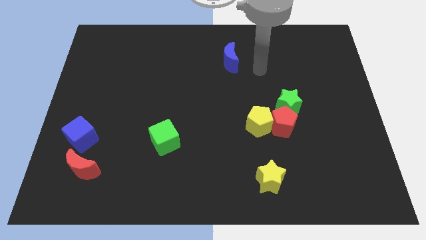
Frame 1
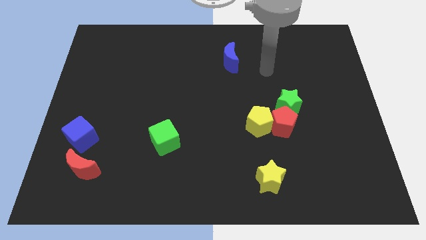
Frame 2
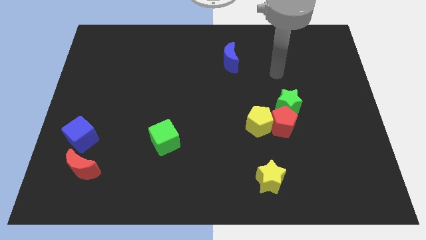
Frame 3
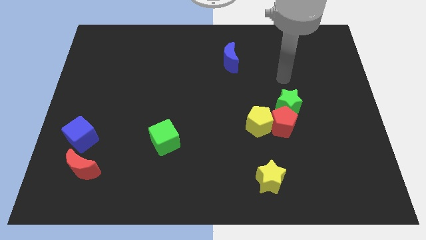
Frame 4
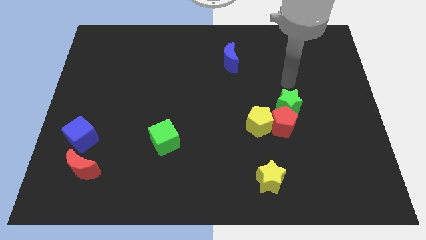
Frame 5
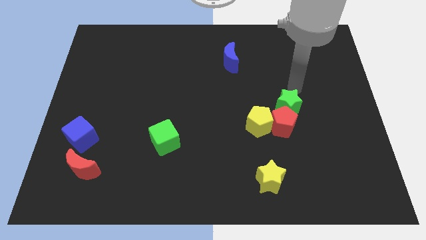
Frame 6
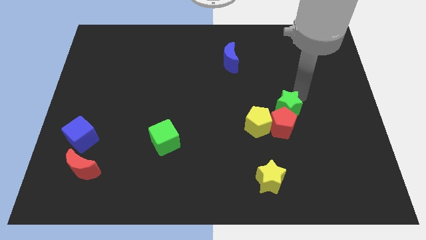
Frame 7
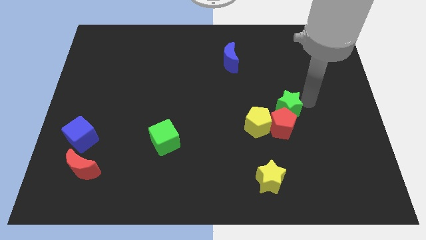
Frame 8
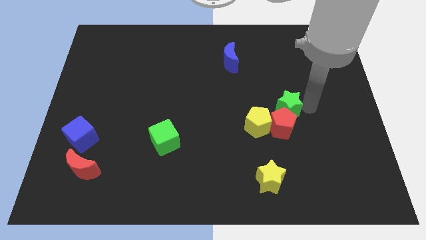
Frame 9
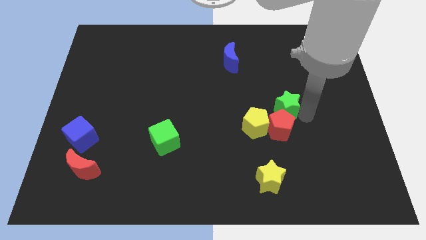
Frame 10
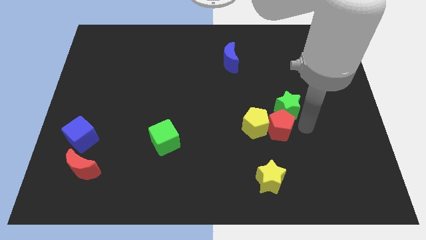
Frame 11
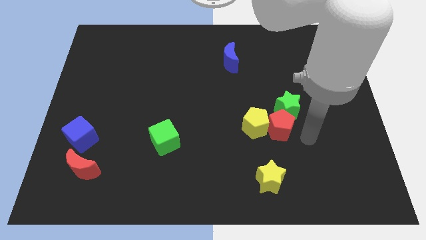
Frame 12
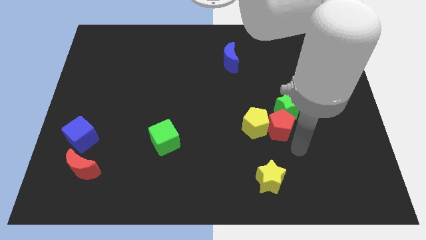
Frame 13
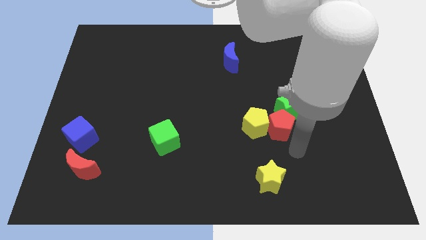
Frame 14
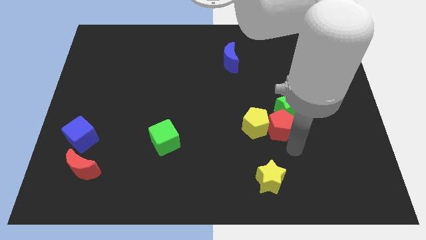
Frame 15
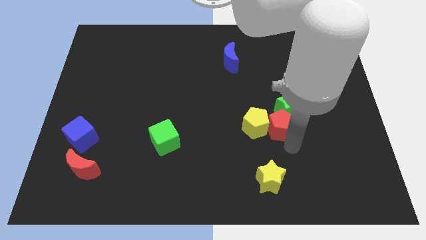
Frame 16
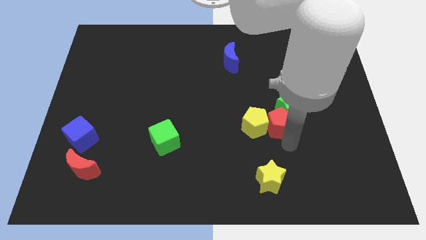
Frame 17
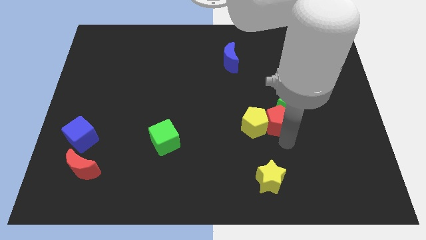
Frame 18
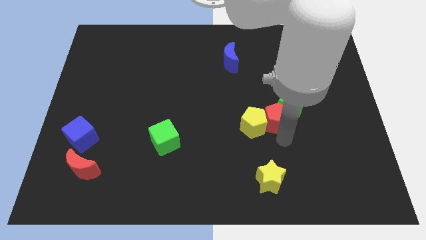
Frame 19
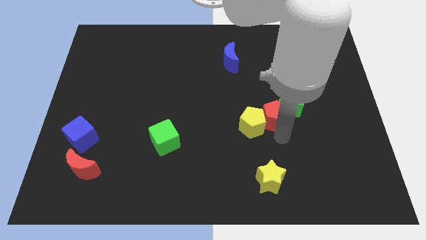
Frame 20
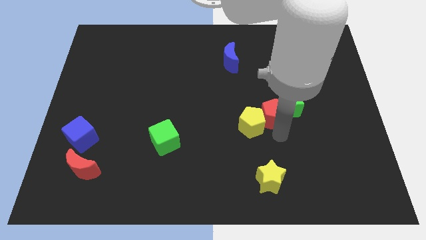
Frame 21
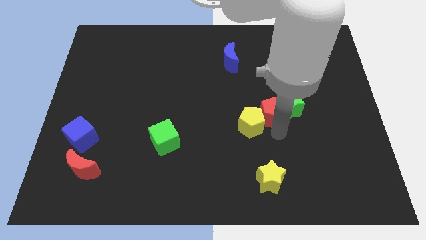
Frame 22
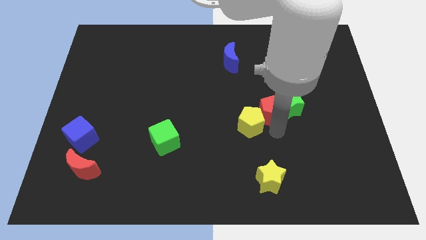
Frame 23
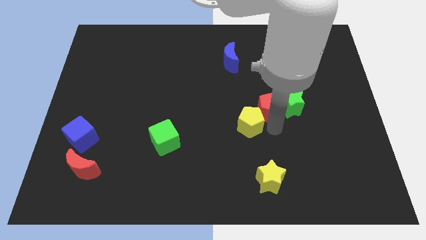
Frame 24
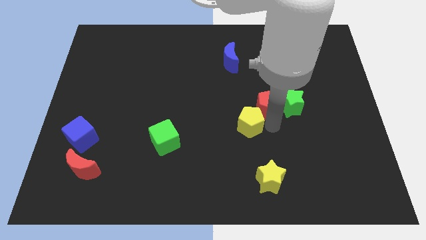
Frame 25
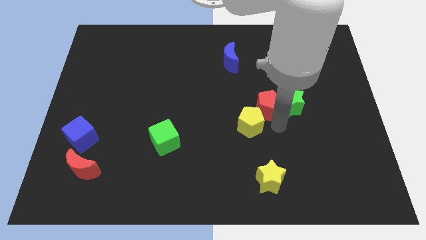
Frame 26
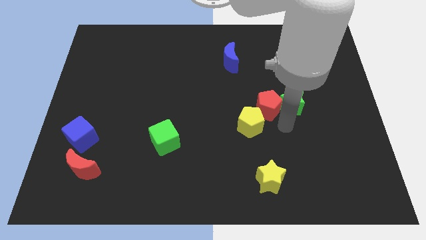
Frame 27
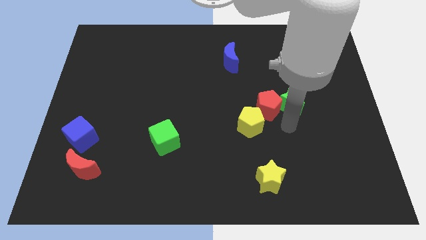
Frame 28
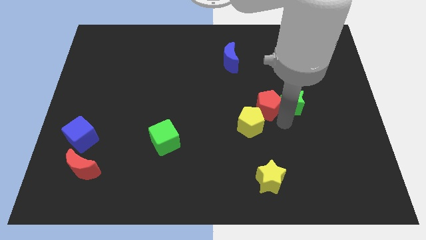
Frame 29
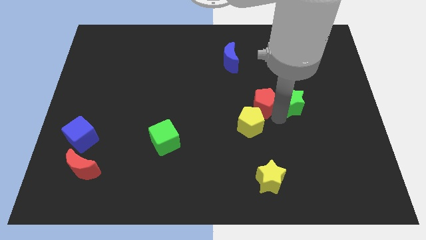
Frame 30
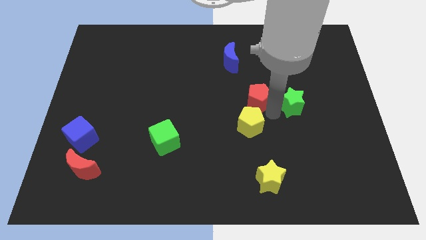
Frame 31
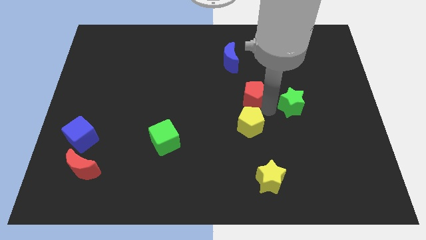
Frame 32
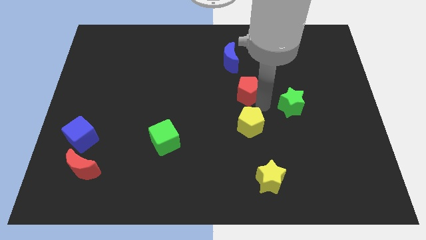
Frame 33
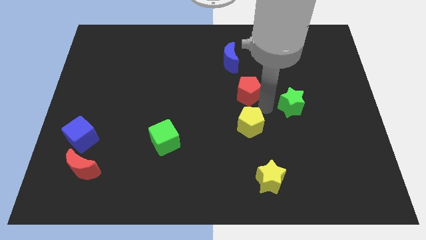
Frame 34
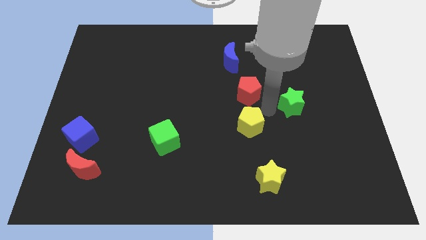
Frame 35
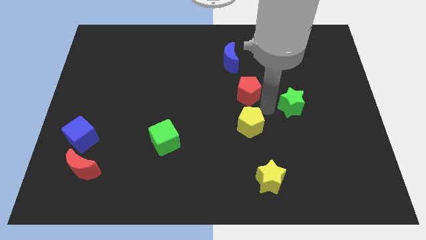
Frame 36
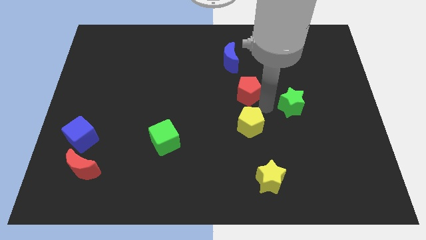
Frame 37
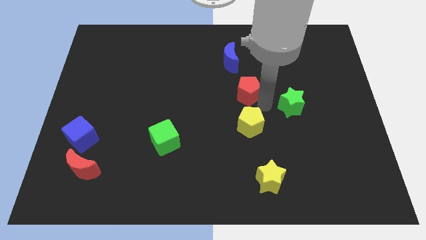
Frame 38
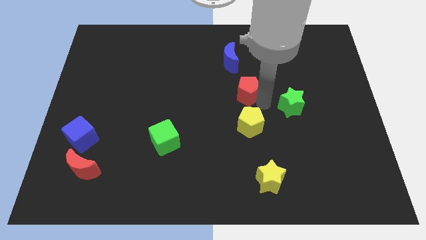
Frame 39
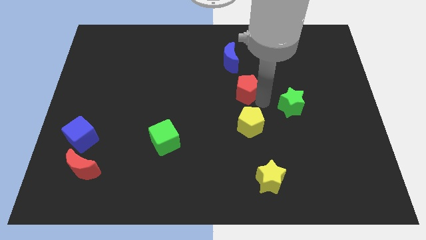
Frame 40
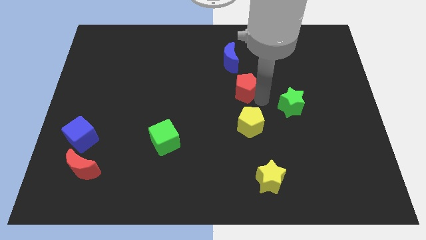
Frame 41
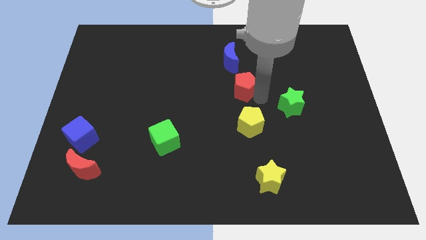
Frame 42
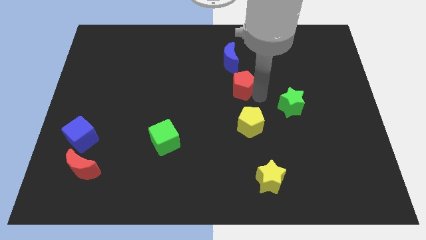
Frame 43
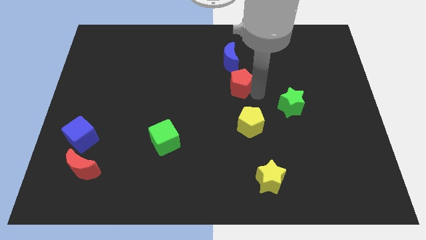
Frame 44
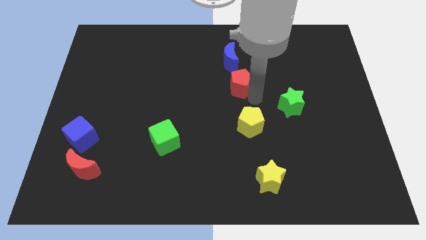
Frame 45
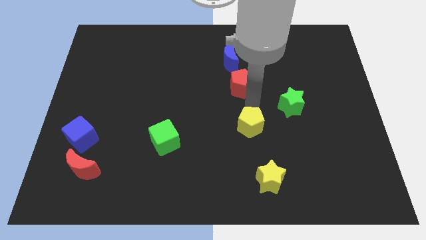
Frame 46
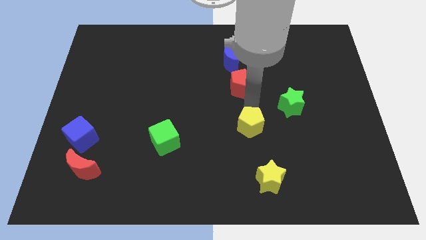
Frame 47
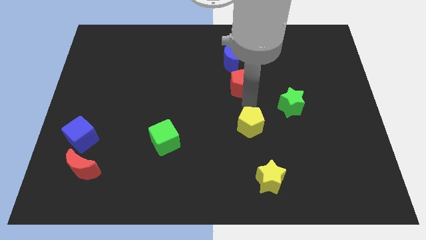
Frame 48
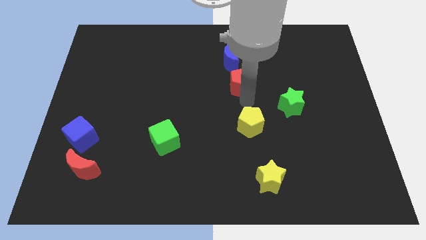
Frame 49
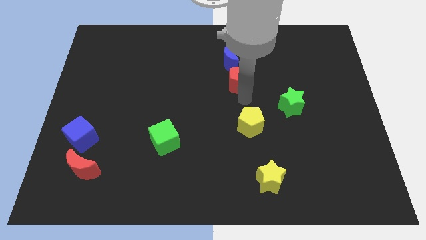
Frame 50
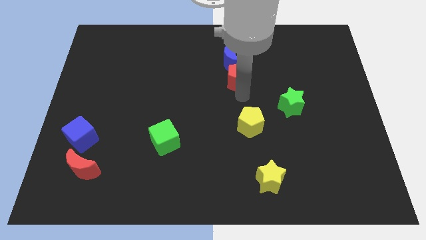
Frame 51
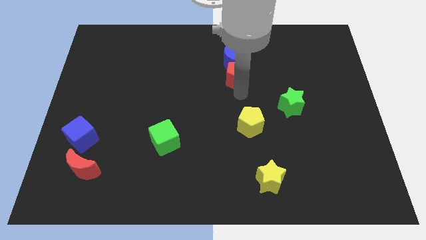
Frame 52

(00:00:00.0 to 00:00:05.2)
slide the red pentagon next to the blue moon
